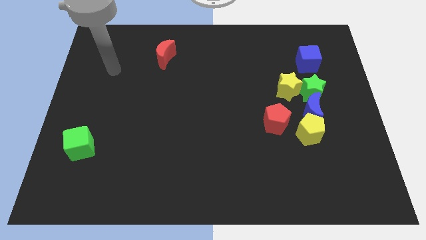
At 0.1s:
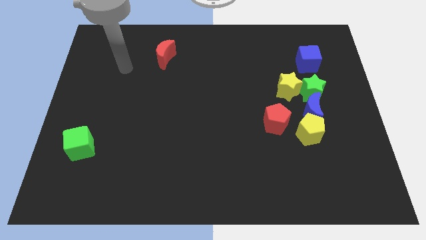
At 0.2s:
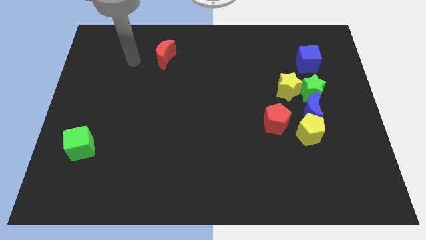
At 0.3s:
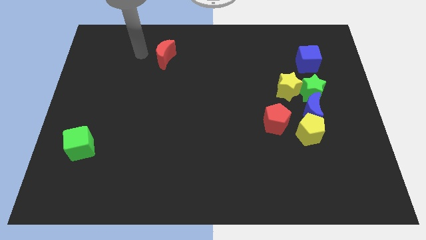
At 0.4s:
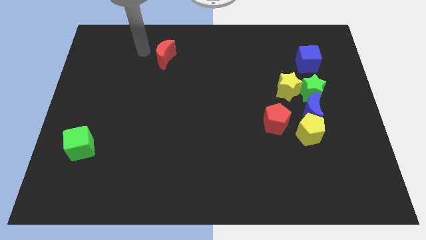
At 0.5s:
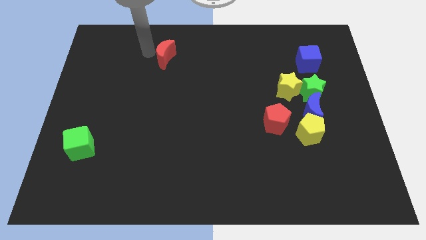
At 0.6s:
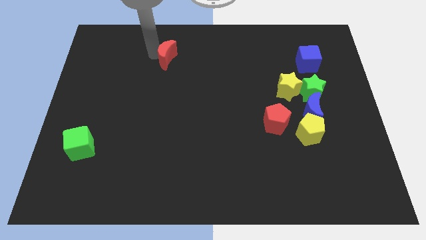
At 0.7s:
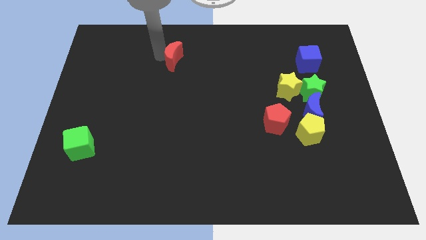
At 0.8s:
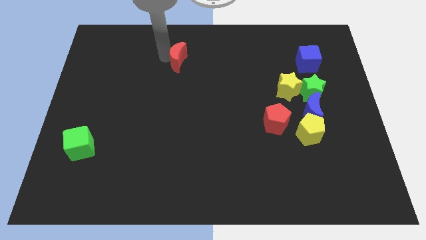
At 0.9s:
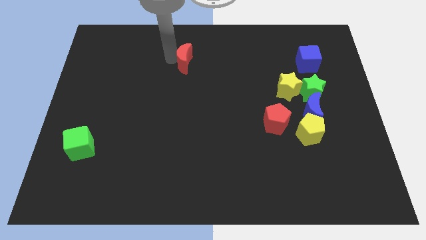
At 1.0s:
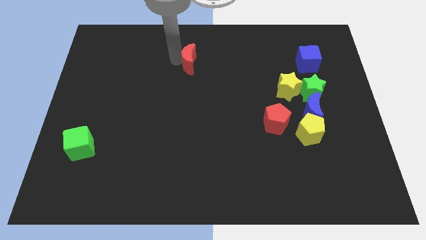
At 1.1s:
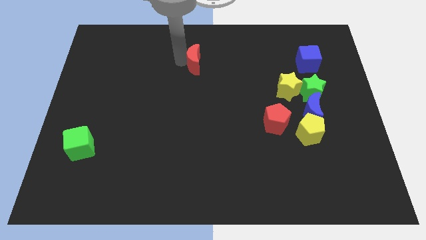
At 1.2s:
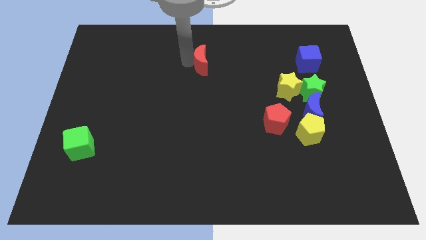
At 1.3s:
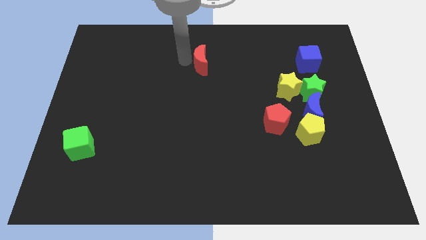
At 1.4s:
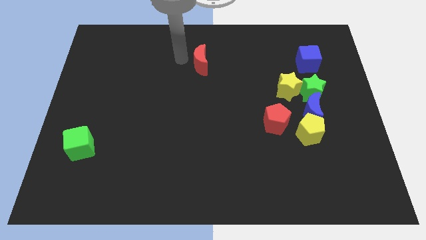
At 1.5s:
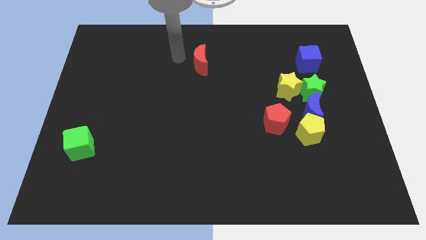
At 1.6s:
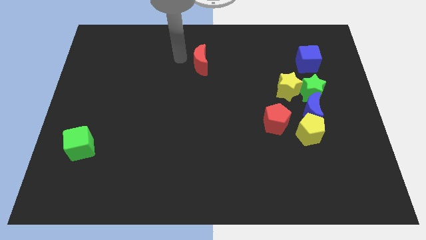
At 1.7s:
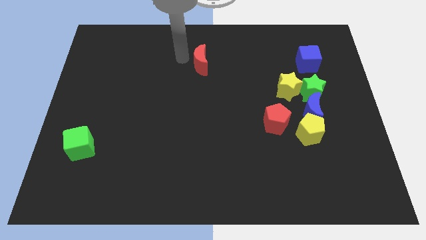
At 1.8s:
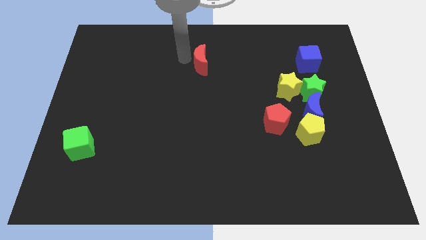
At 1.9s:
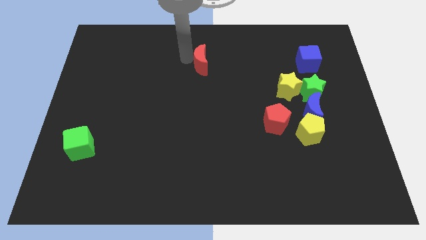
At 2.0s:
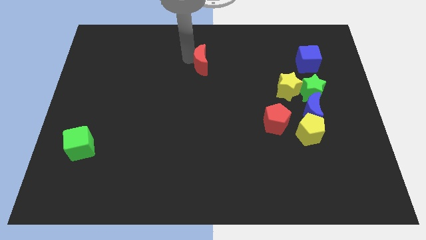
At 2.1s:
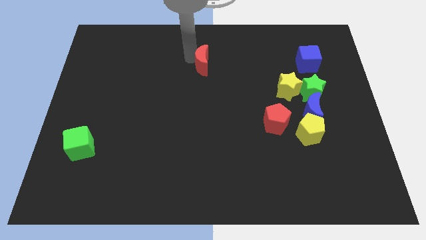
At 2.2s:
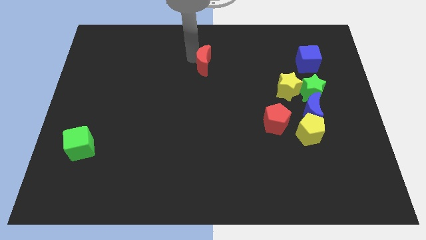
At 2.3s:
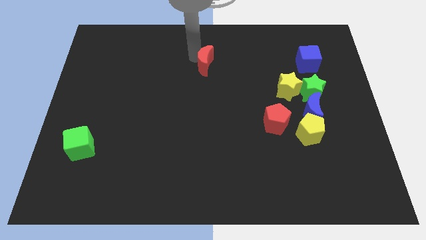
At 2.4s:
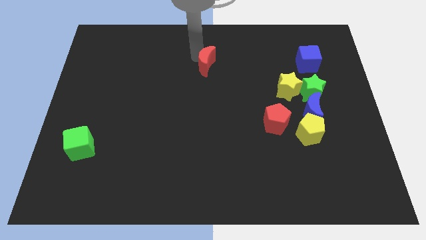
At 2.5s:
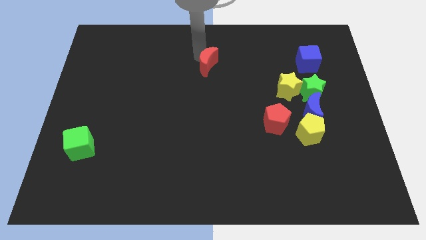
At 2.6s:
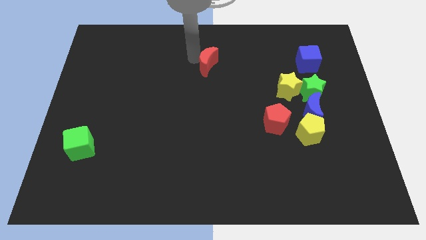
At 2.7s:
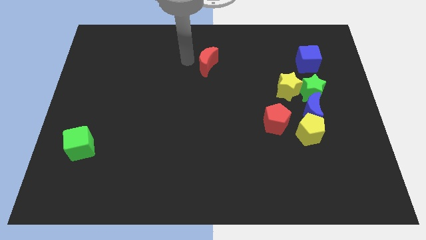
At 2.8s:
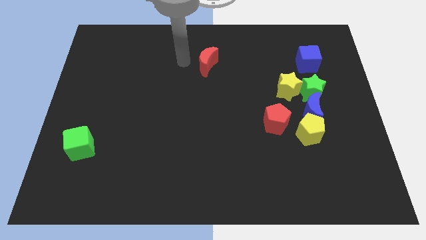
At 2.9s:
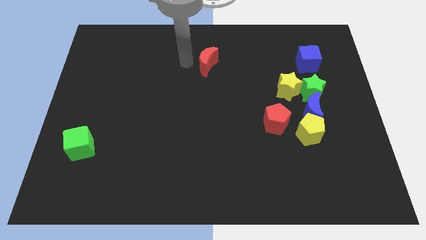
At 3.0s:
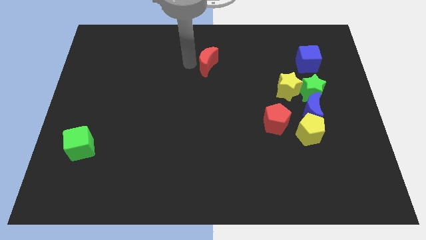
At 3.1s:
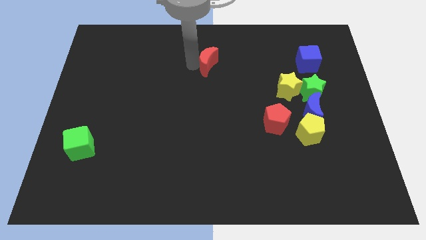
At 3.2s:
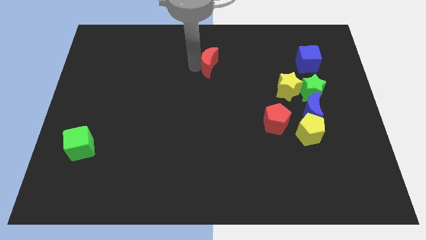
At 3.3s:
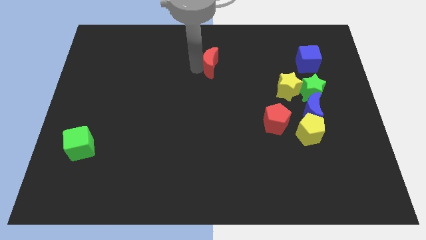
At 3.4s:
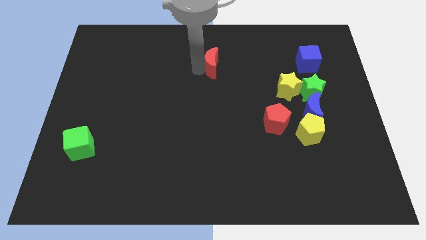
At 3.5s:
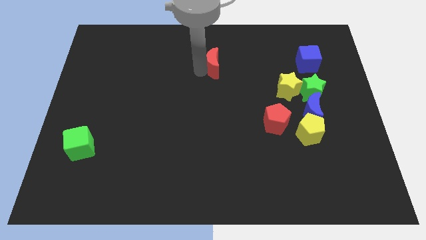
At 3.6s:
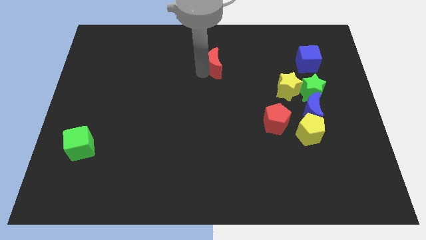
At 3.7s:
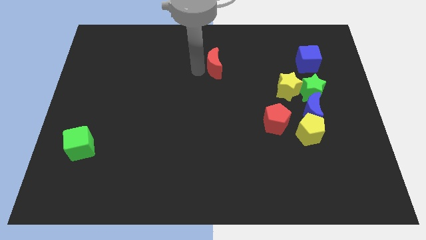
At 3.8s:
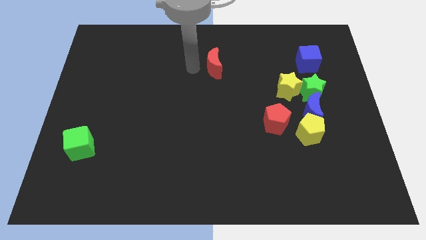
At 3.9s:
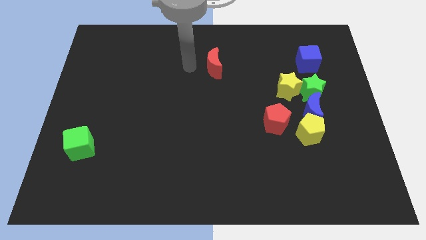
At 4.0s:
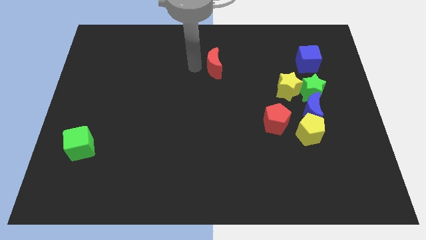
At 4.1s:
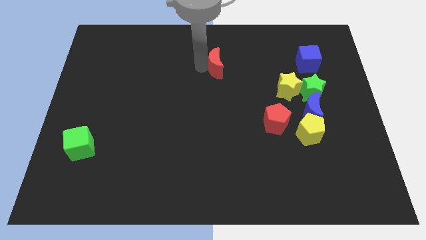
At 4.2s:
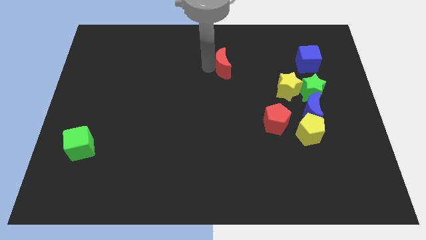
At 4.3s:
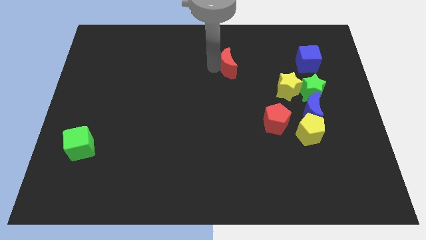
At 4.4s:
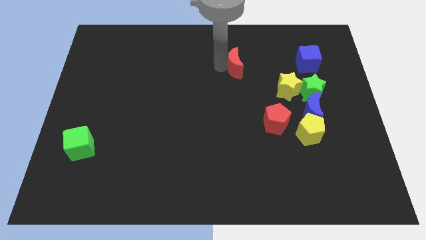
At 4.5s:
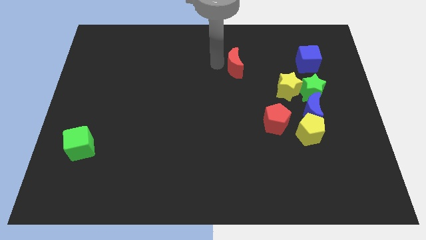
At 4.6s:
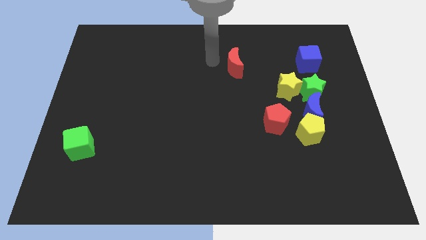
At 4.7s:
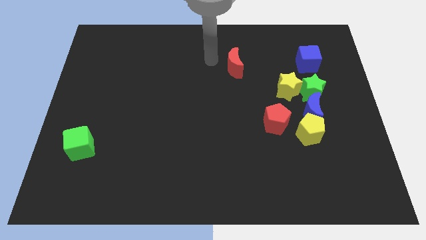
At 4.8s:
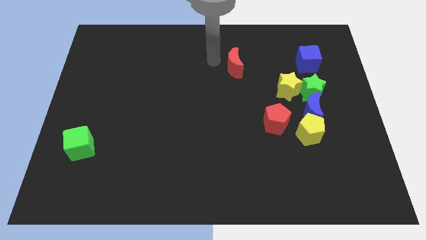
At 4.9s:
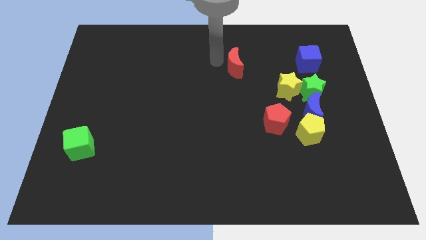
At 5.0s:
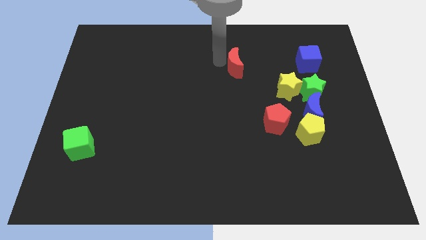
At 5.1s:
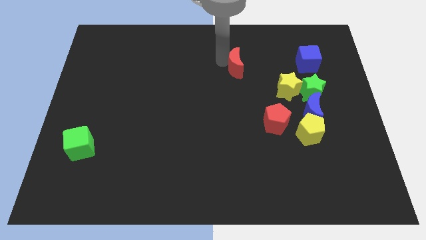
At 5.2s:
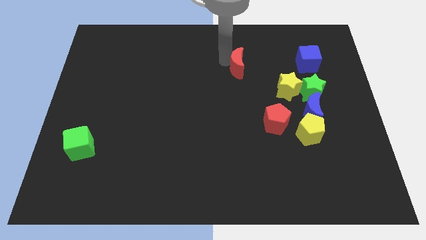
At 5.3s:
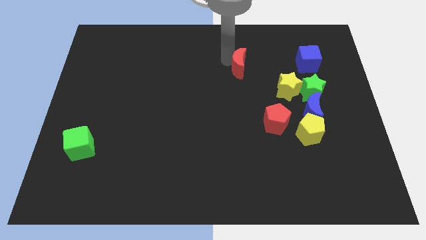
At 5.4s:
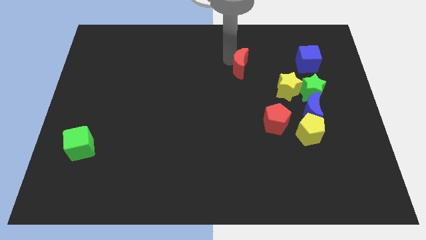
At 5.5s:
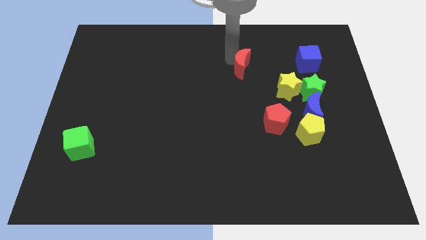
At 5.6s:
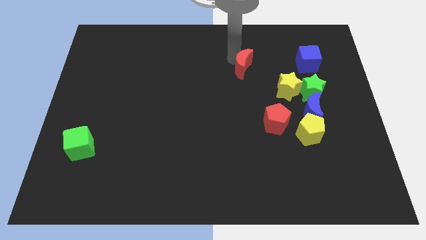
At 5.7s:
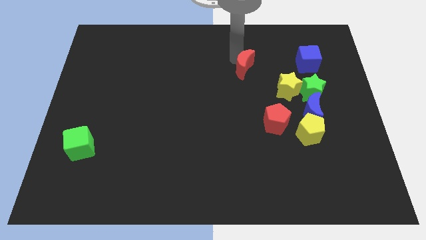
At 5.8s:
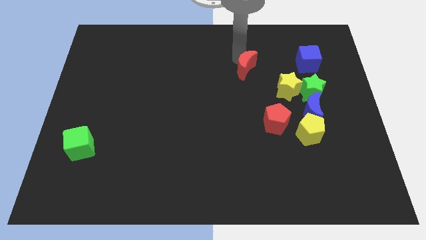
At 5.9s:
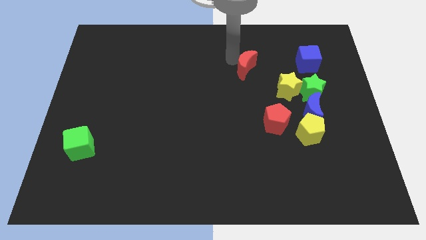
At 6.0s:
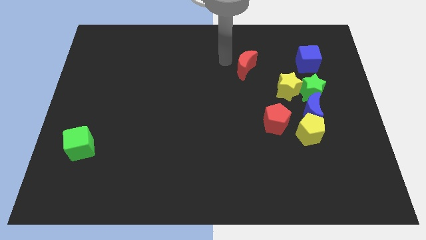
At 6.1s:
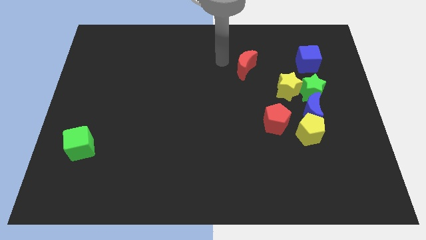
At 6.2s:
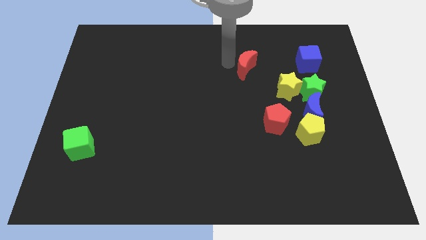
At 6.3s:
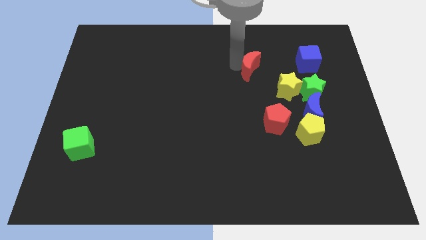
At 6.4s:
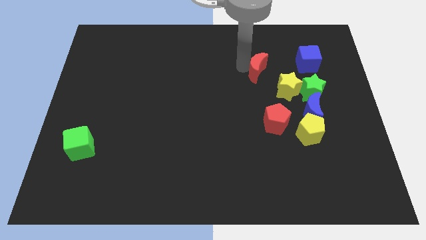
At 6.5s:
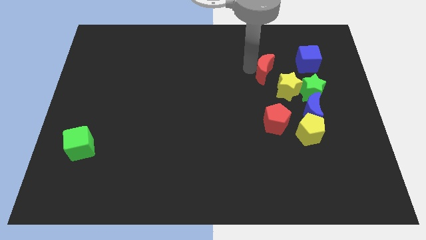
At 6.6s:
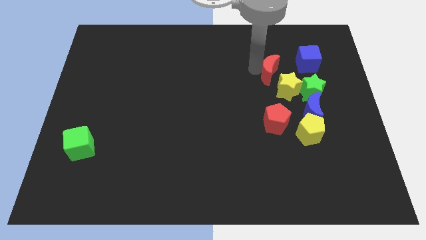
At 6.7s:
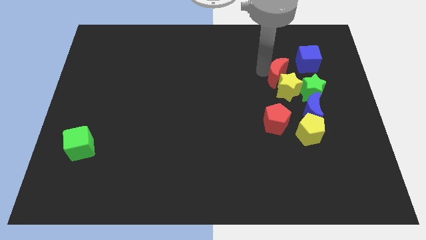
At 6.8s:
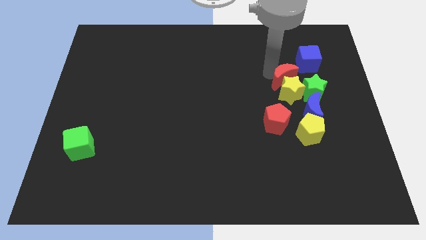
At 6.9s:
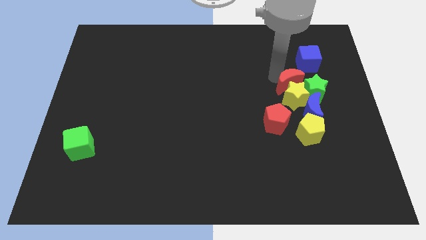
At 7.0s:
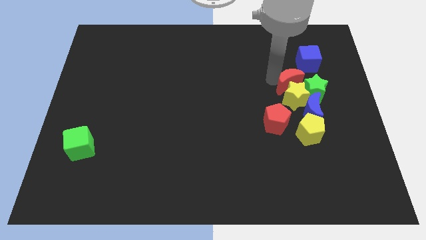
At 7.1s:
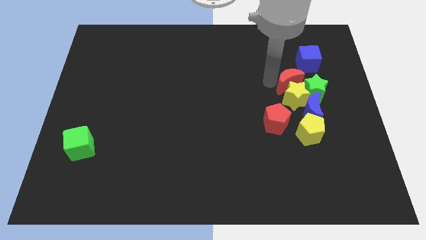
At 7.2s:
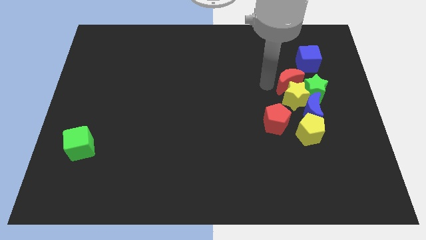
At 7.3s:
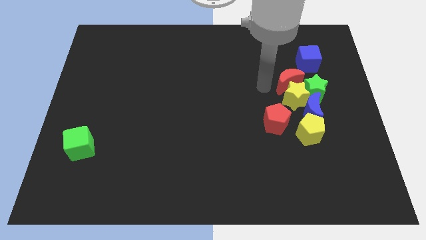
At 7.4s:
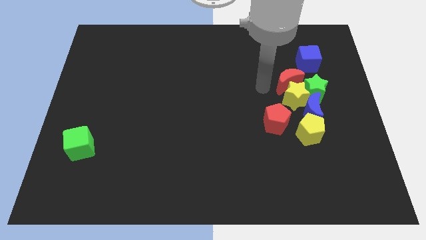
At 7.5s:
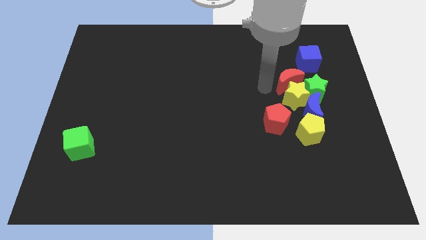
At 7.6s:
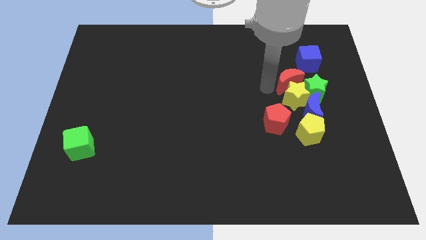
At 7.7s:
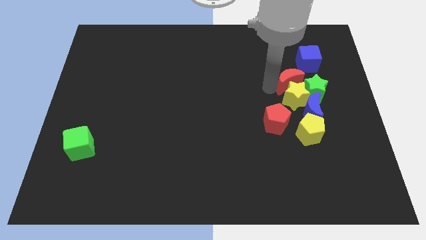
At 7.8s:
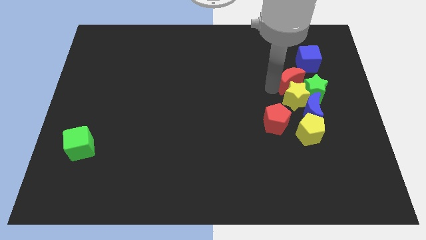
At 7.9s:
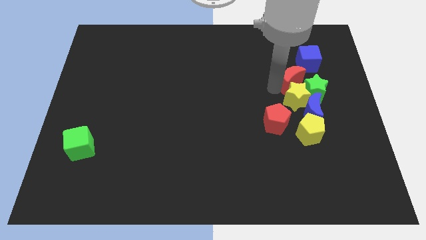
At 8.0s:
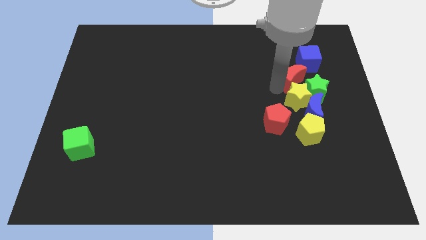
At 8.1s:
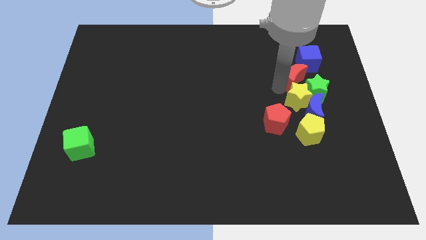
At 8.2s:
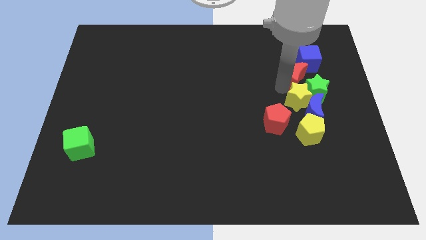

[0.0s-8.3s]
push the red moon next to the green star
